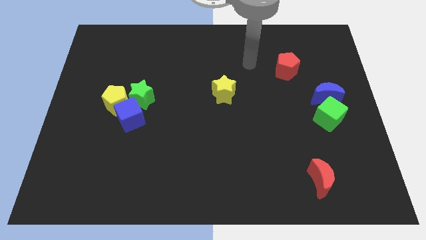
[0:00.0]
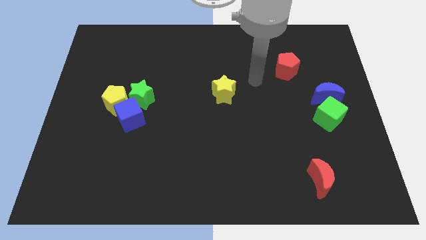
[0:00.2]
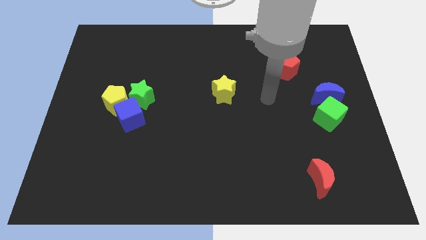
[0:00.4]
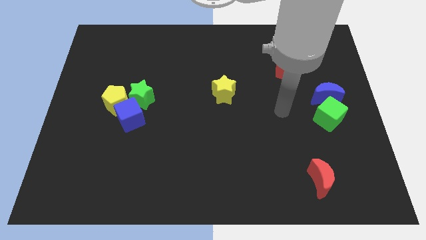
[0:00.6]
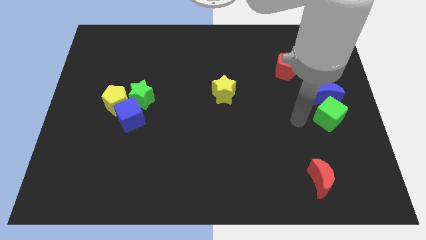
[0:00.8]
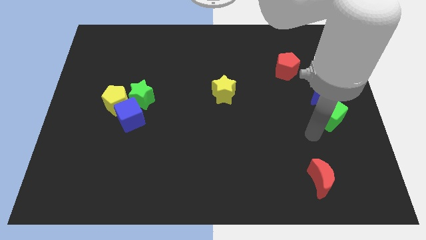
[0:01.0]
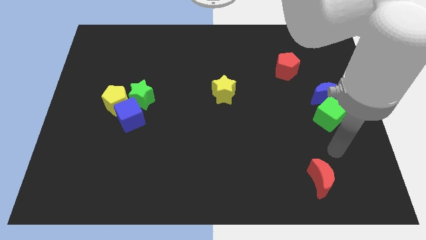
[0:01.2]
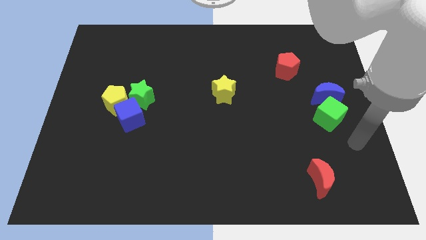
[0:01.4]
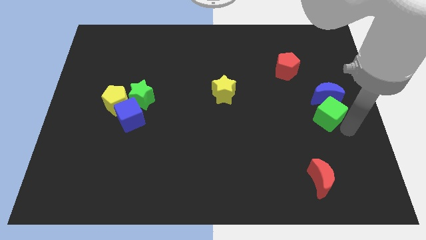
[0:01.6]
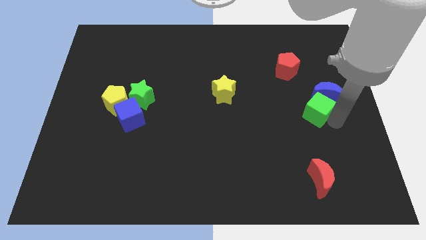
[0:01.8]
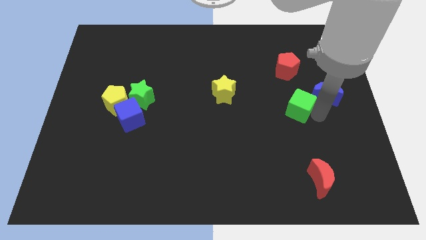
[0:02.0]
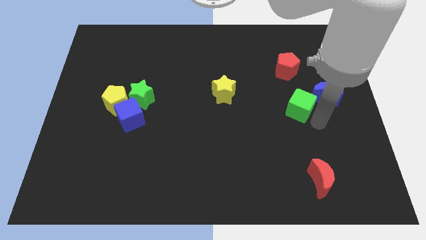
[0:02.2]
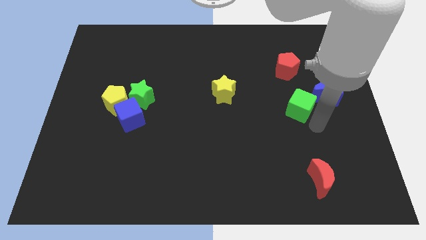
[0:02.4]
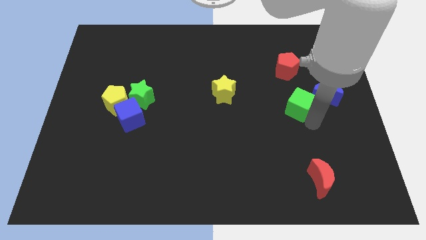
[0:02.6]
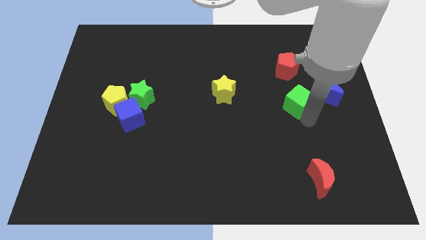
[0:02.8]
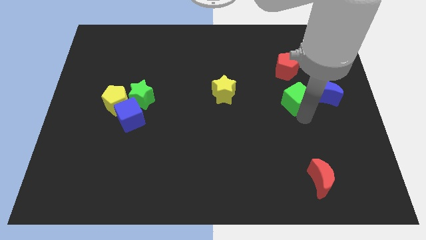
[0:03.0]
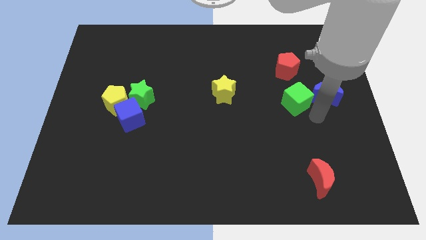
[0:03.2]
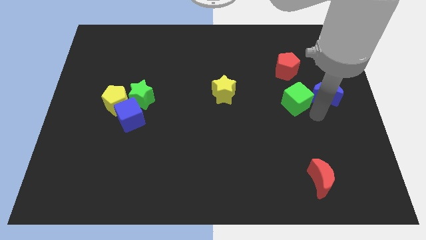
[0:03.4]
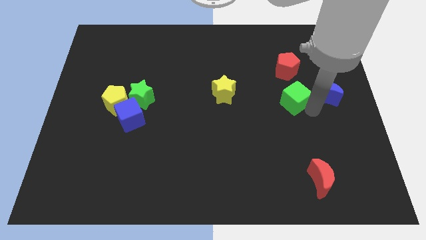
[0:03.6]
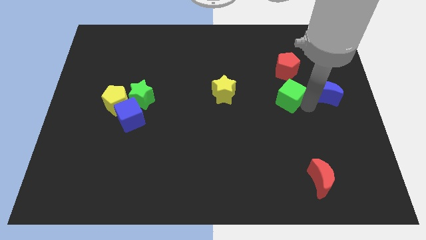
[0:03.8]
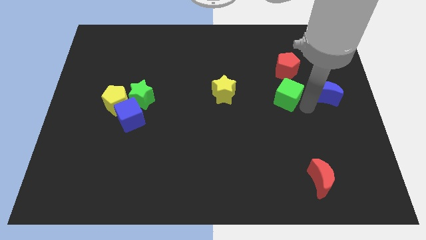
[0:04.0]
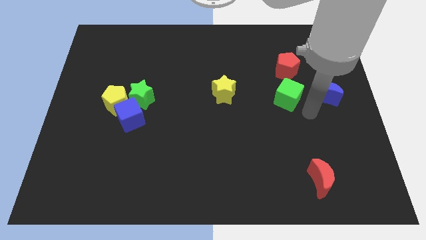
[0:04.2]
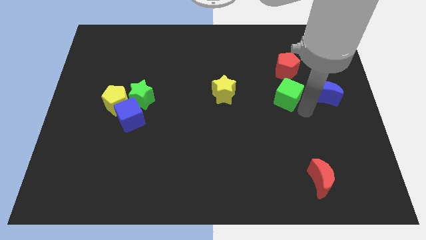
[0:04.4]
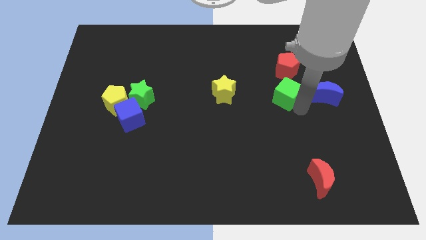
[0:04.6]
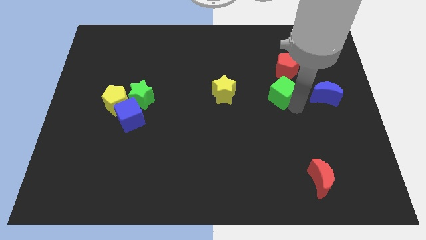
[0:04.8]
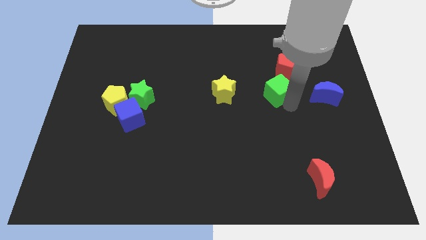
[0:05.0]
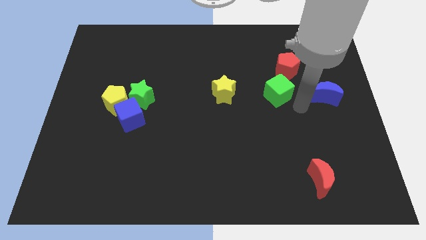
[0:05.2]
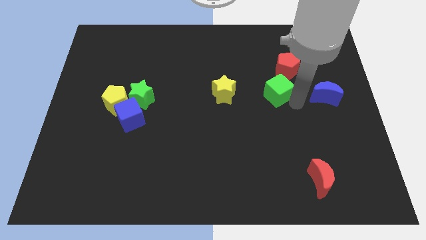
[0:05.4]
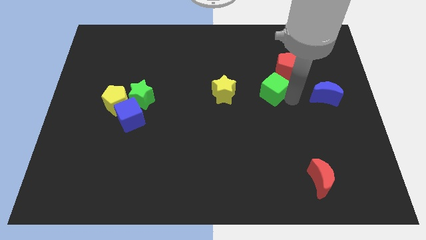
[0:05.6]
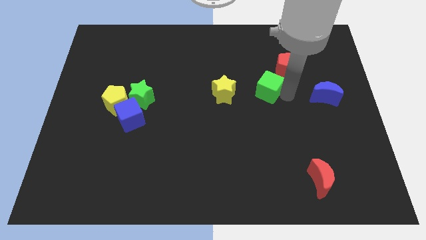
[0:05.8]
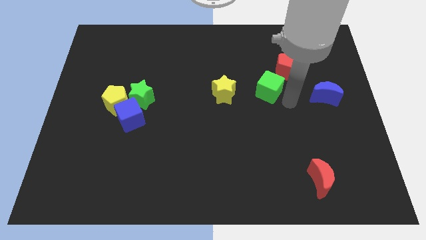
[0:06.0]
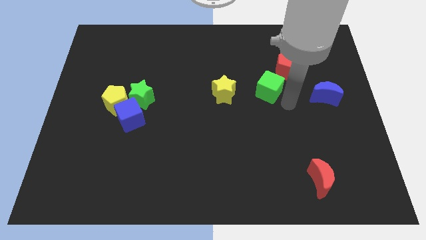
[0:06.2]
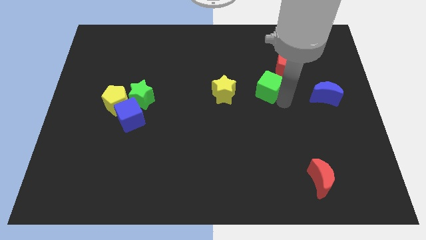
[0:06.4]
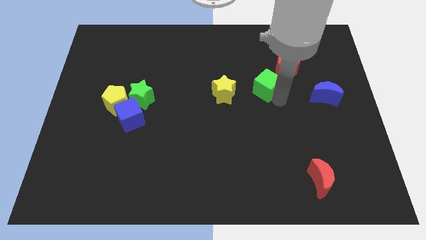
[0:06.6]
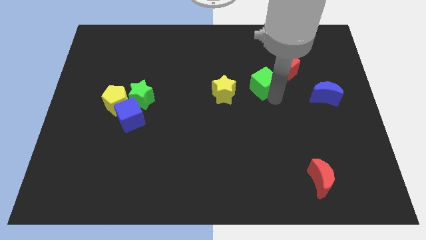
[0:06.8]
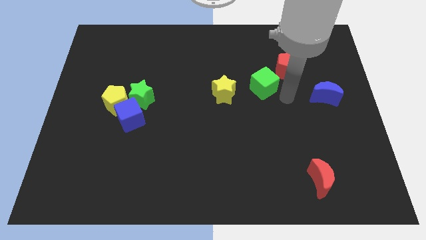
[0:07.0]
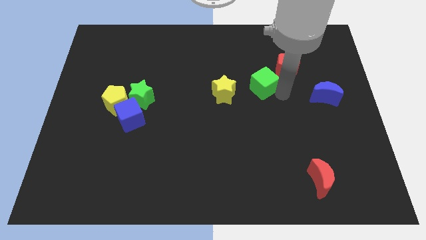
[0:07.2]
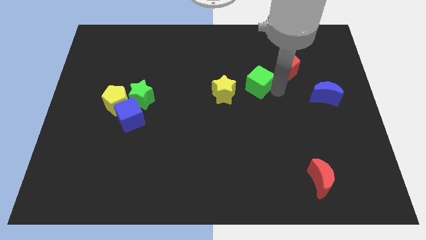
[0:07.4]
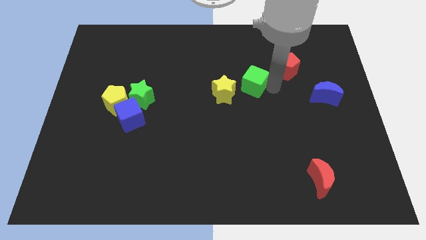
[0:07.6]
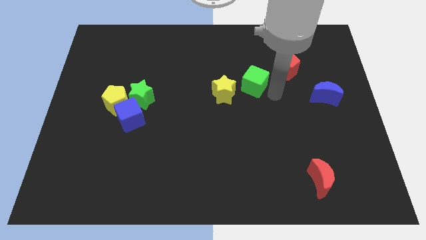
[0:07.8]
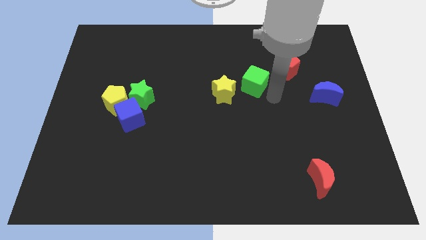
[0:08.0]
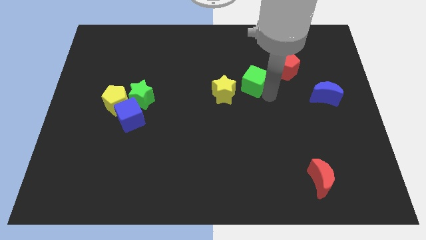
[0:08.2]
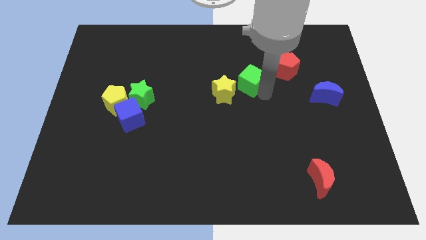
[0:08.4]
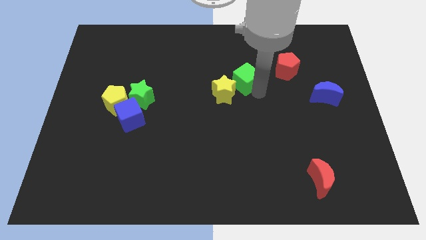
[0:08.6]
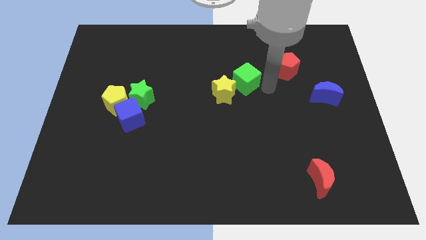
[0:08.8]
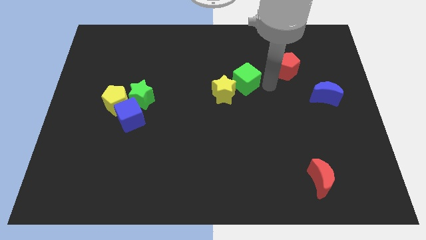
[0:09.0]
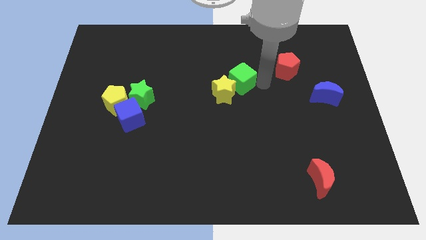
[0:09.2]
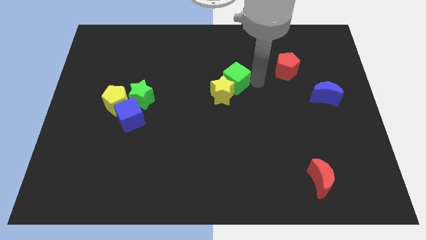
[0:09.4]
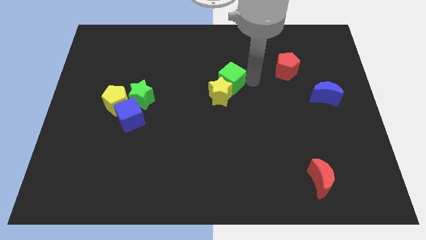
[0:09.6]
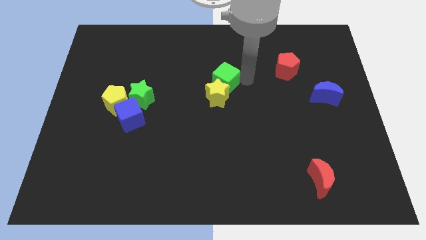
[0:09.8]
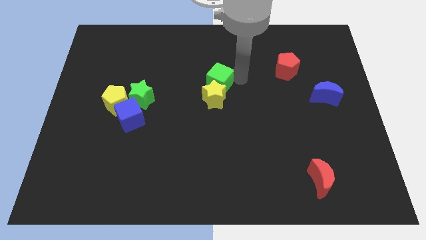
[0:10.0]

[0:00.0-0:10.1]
push the green cube to the top left side of the yellow star

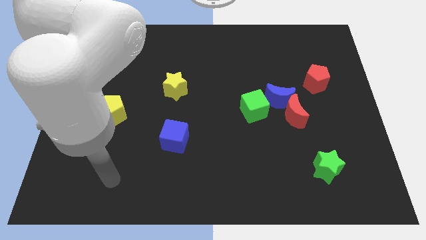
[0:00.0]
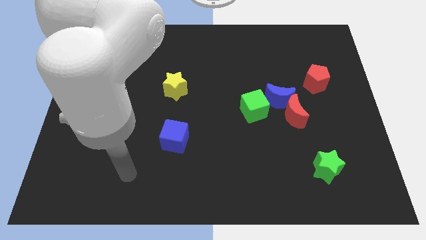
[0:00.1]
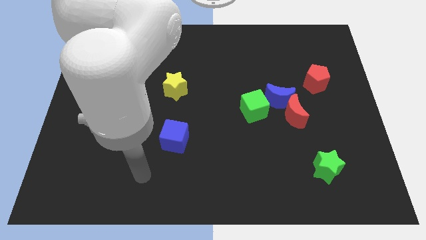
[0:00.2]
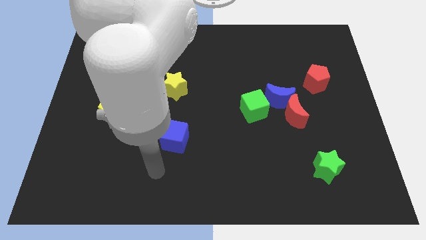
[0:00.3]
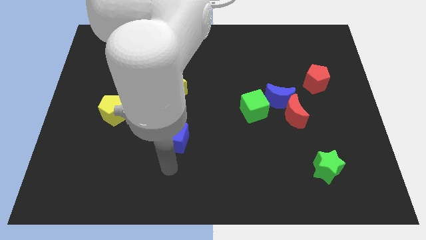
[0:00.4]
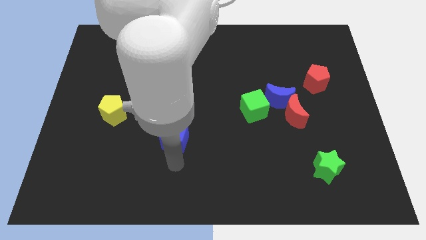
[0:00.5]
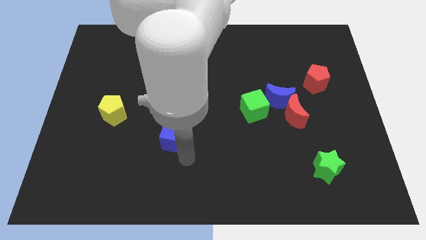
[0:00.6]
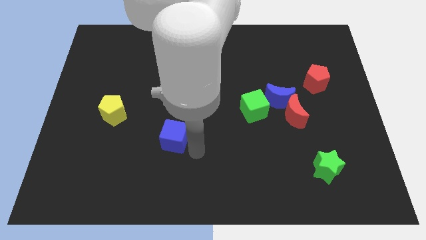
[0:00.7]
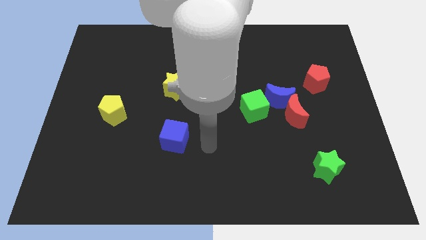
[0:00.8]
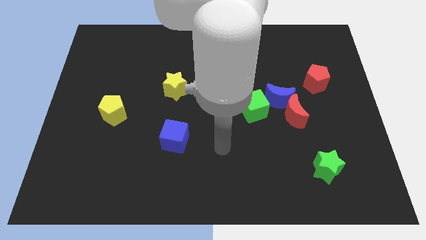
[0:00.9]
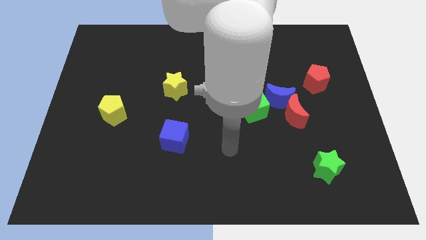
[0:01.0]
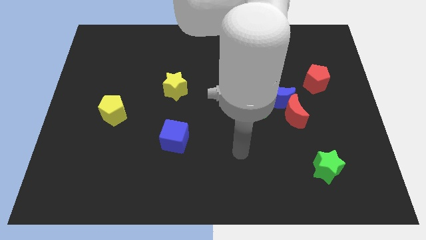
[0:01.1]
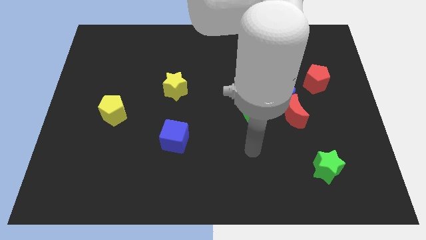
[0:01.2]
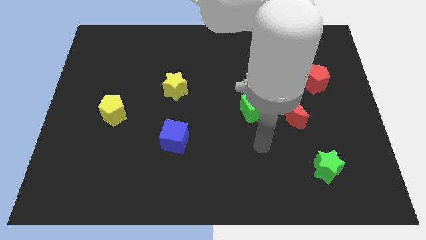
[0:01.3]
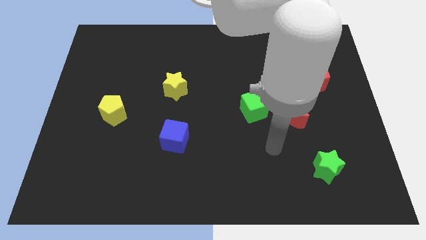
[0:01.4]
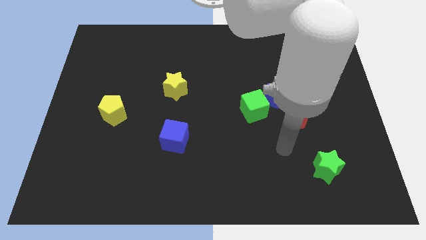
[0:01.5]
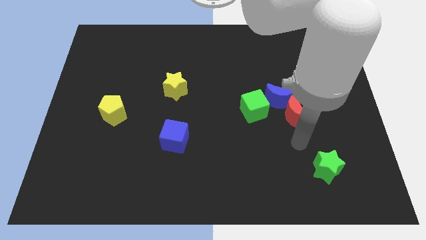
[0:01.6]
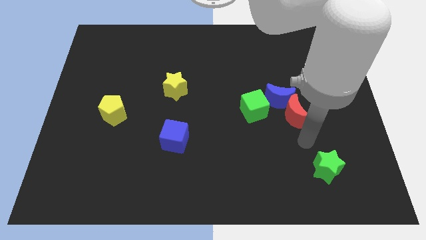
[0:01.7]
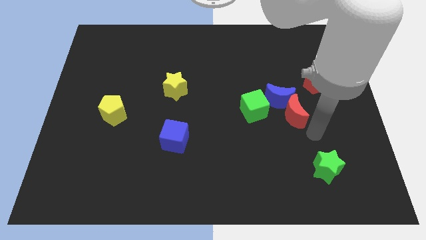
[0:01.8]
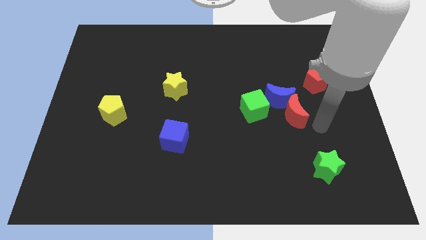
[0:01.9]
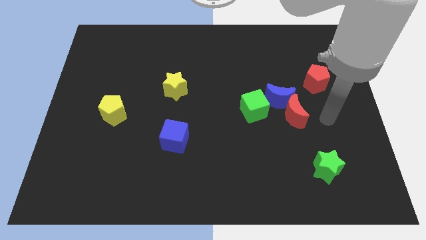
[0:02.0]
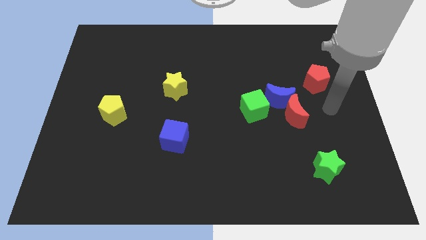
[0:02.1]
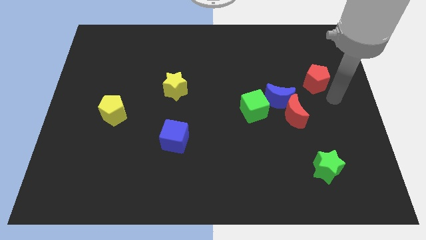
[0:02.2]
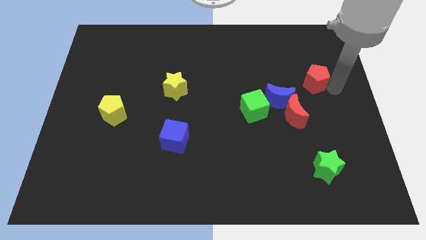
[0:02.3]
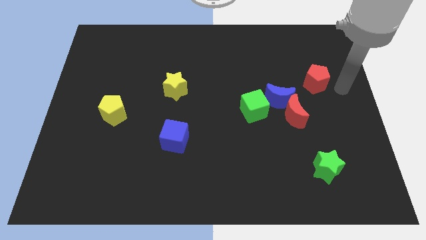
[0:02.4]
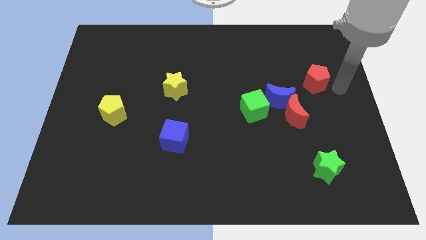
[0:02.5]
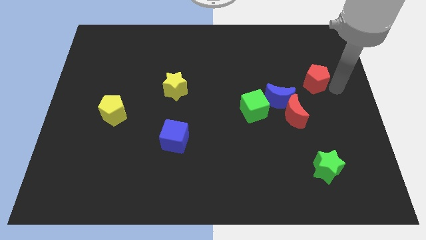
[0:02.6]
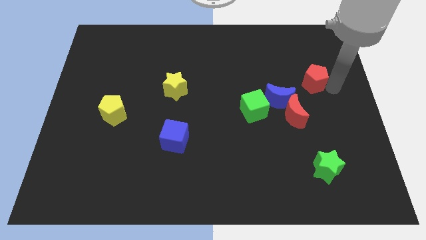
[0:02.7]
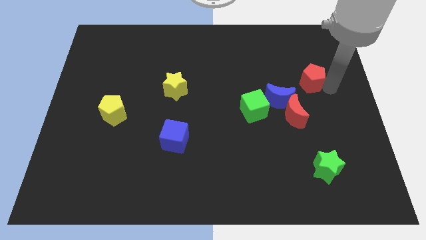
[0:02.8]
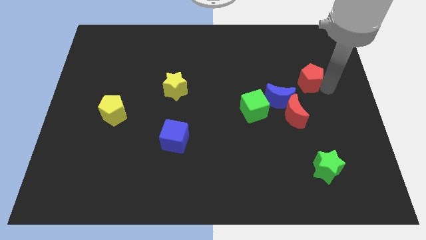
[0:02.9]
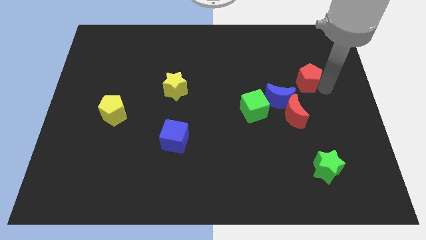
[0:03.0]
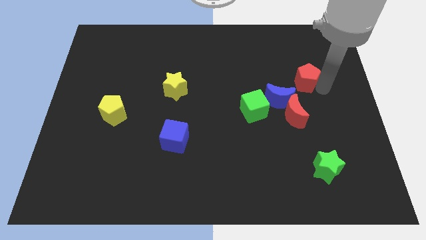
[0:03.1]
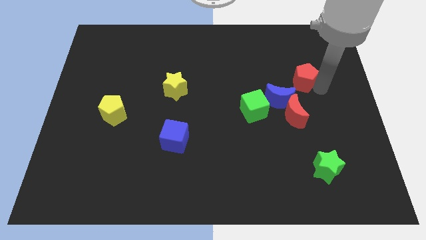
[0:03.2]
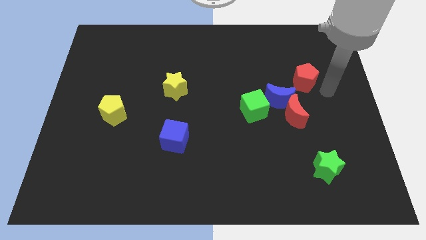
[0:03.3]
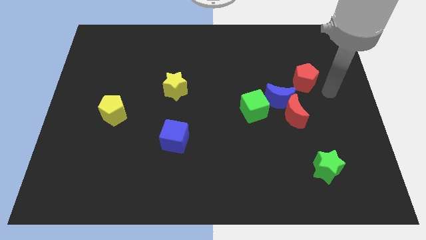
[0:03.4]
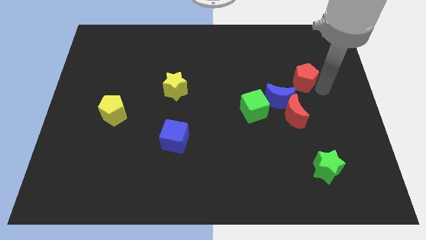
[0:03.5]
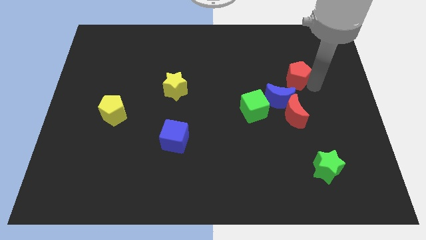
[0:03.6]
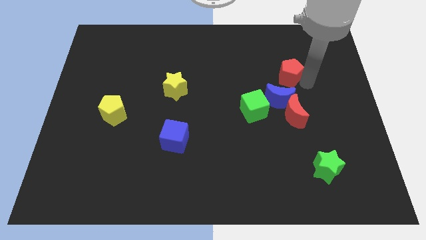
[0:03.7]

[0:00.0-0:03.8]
slide the red pentagon above the blue moon
